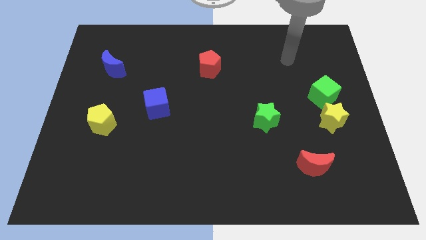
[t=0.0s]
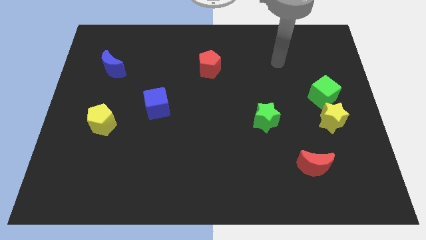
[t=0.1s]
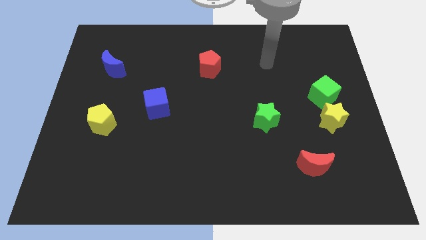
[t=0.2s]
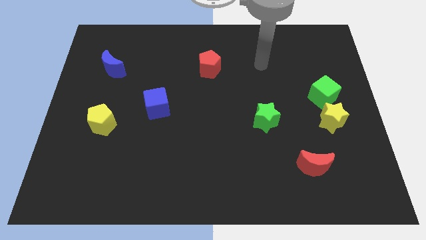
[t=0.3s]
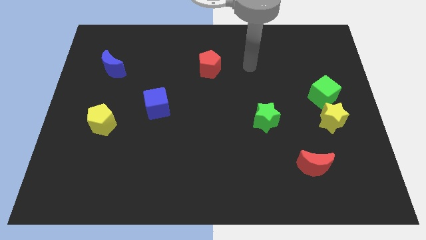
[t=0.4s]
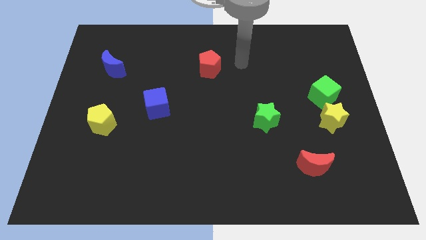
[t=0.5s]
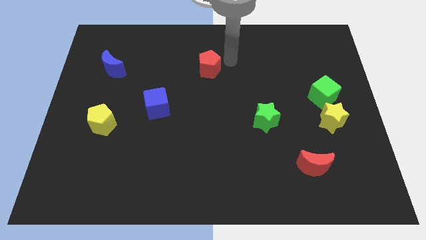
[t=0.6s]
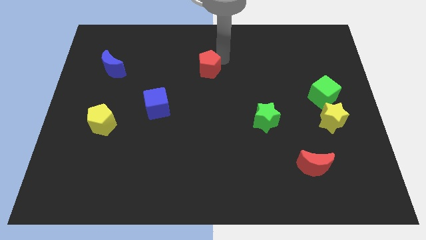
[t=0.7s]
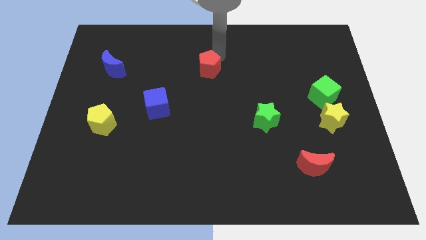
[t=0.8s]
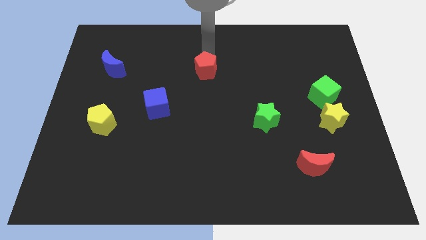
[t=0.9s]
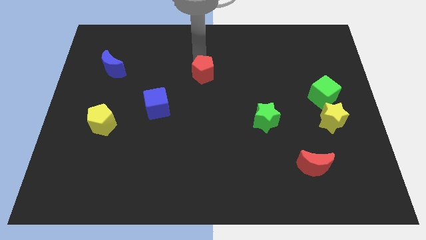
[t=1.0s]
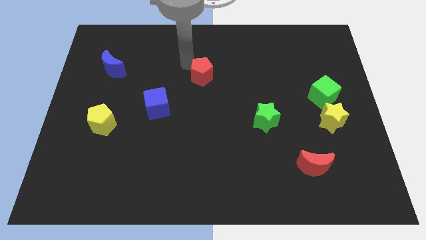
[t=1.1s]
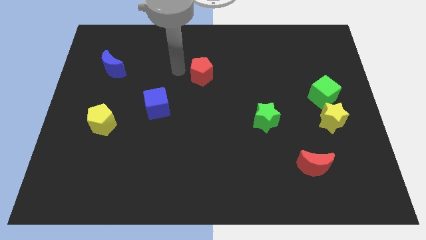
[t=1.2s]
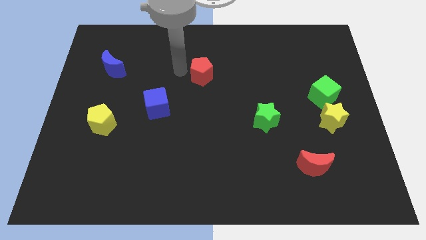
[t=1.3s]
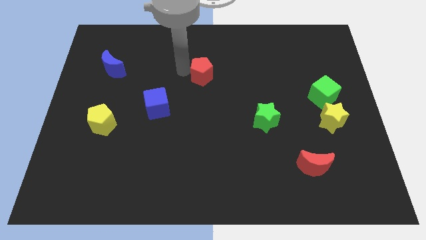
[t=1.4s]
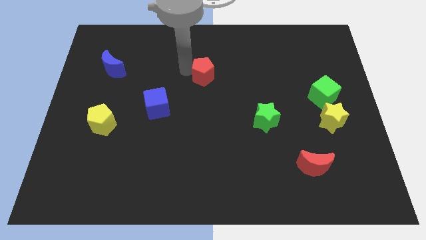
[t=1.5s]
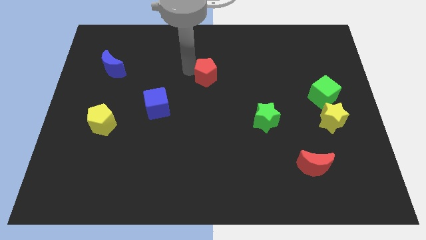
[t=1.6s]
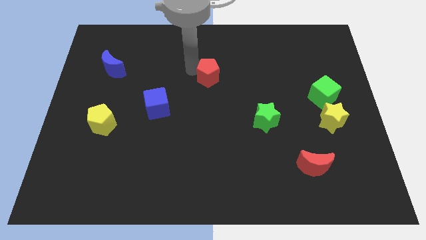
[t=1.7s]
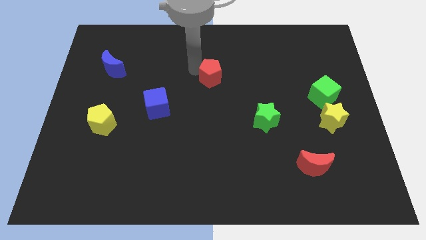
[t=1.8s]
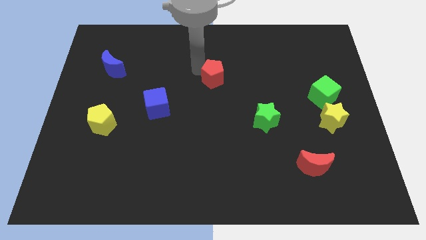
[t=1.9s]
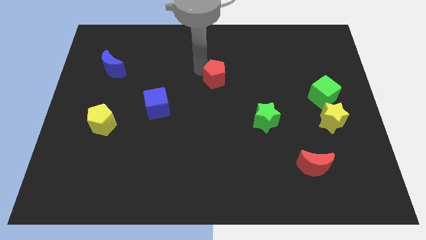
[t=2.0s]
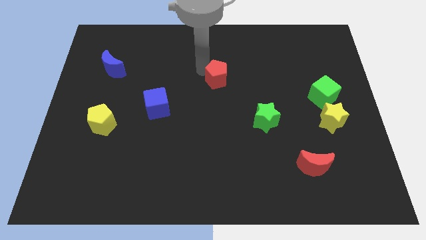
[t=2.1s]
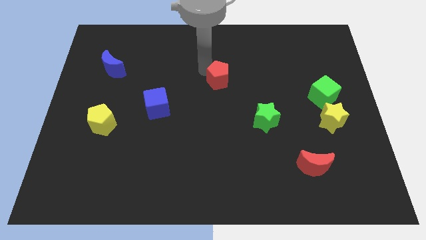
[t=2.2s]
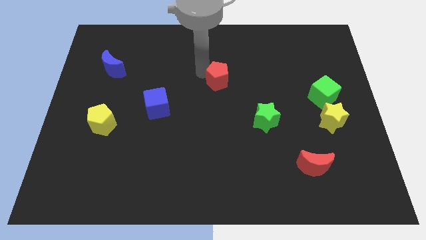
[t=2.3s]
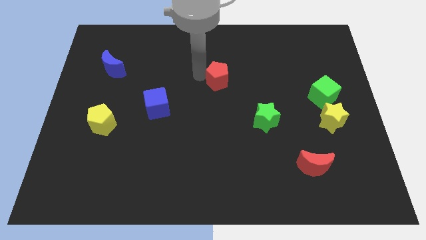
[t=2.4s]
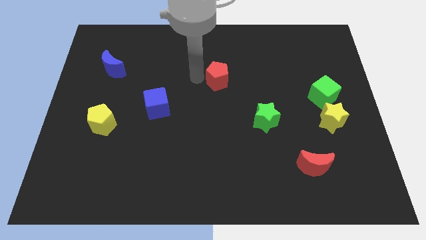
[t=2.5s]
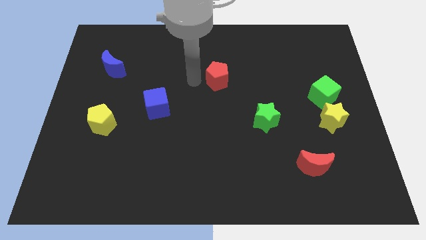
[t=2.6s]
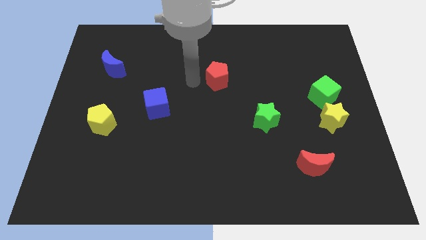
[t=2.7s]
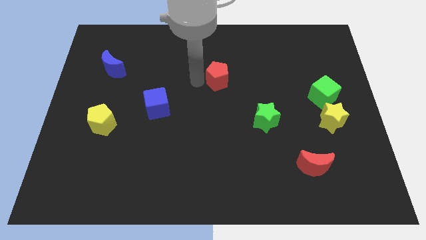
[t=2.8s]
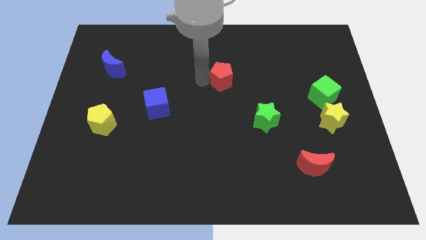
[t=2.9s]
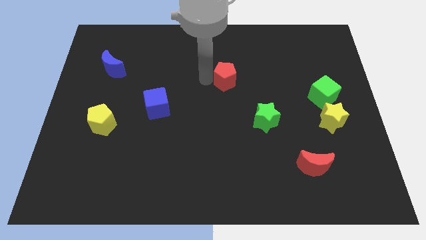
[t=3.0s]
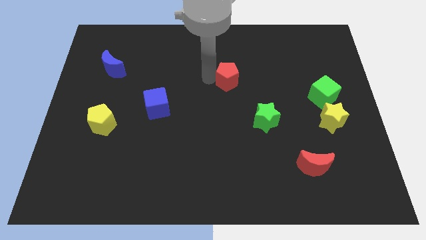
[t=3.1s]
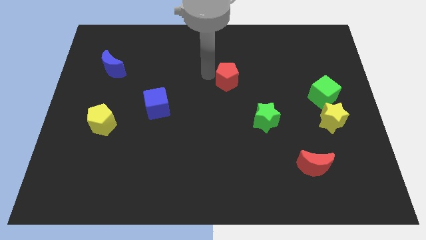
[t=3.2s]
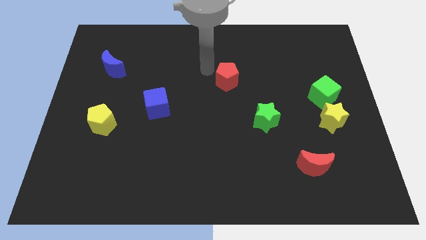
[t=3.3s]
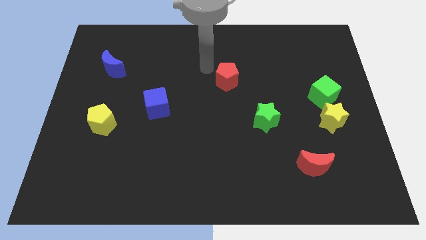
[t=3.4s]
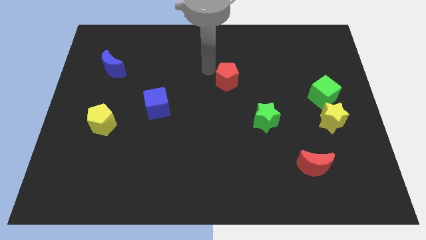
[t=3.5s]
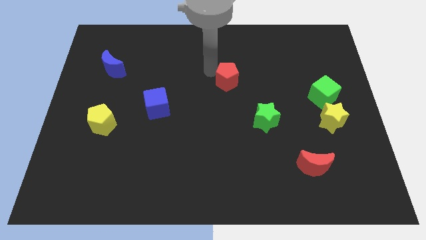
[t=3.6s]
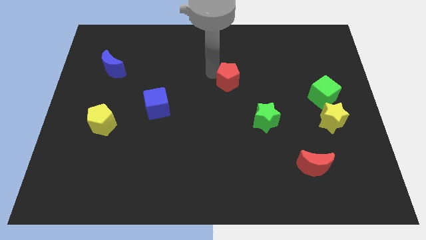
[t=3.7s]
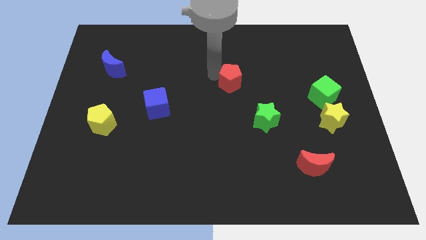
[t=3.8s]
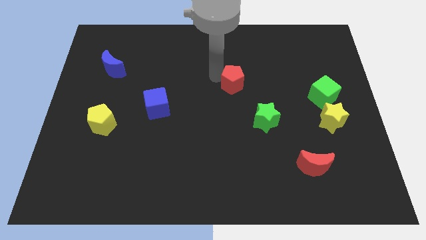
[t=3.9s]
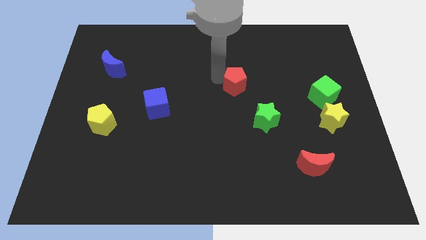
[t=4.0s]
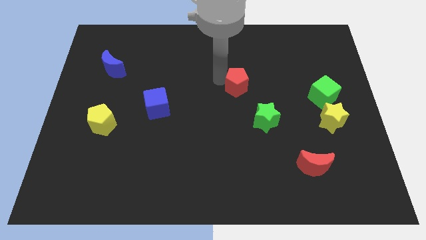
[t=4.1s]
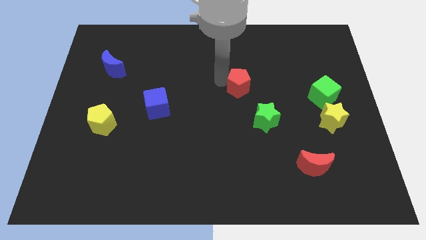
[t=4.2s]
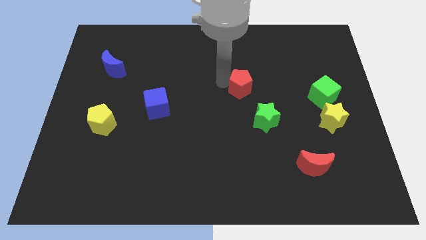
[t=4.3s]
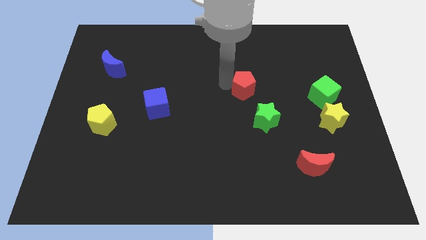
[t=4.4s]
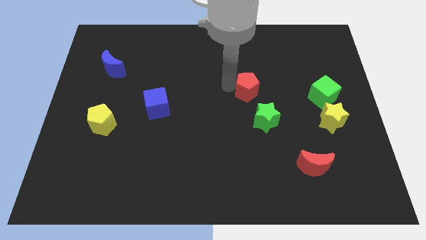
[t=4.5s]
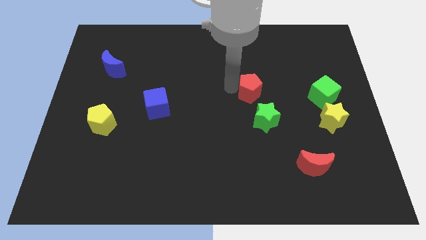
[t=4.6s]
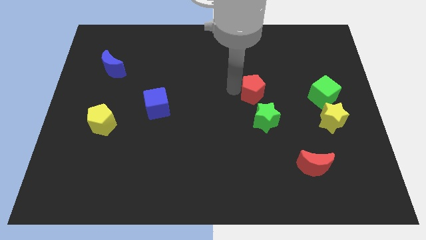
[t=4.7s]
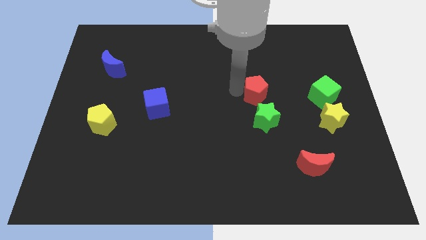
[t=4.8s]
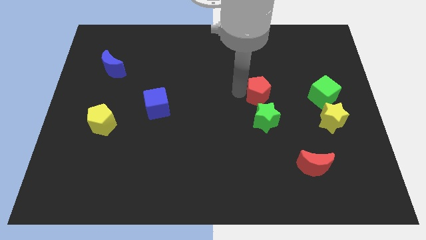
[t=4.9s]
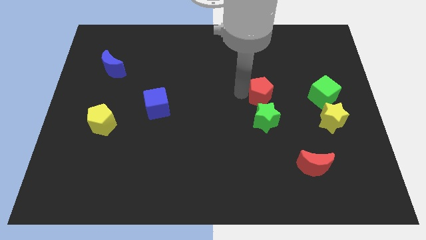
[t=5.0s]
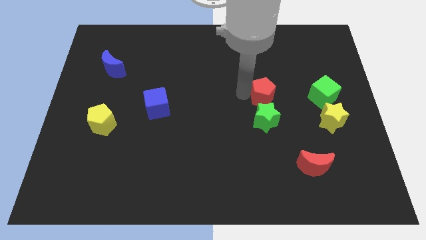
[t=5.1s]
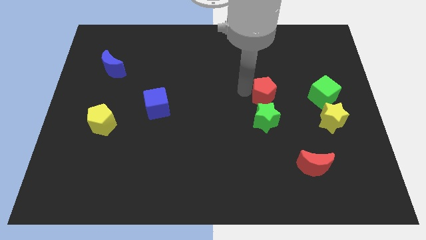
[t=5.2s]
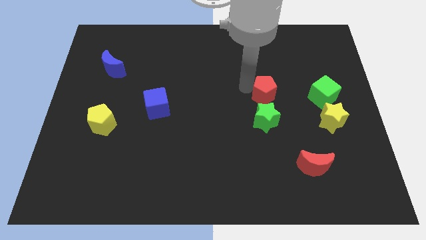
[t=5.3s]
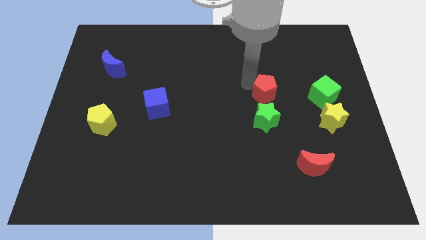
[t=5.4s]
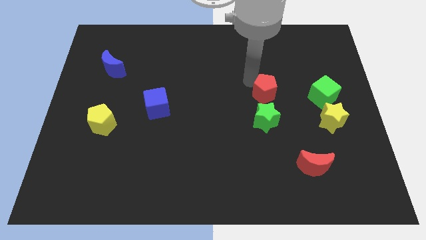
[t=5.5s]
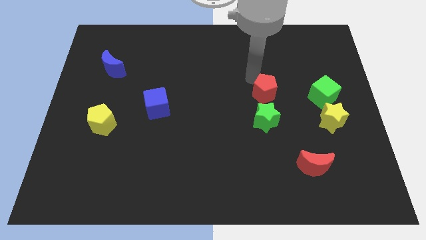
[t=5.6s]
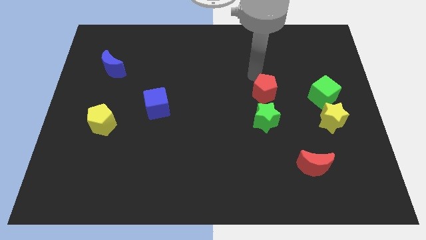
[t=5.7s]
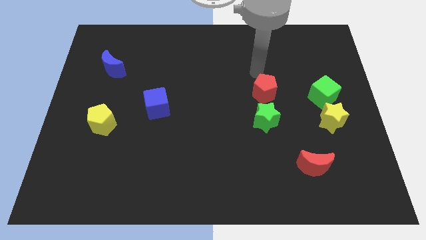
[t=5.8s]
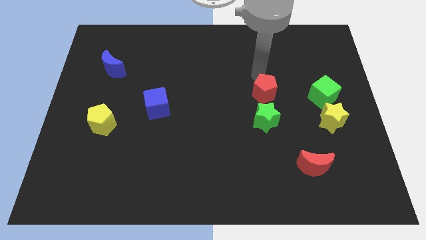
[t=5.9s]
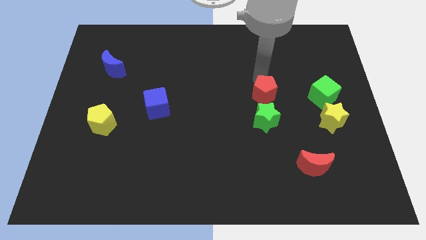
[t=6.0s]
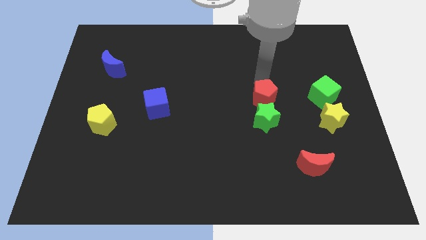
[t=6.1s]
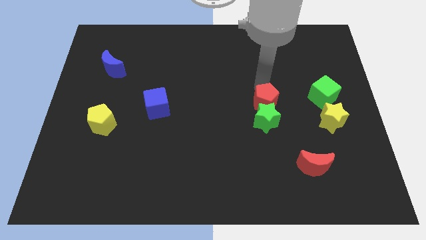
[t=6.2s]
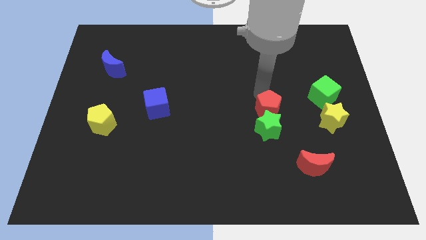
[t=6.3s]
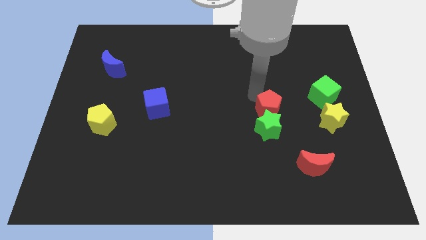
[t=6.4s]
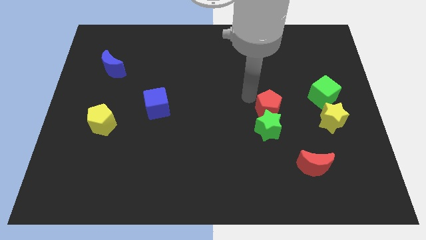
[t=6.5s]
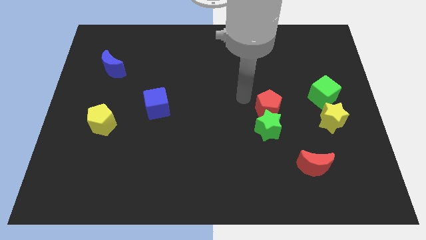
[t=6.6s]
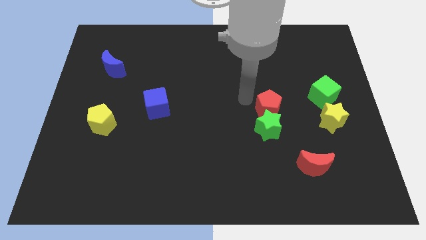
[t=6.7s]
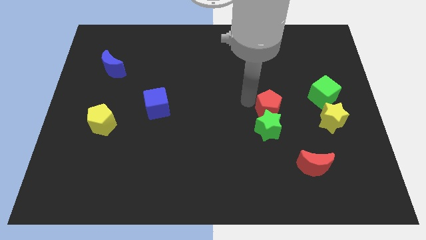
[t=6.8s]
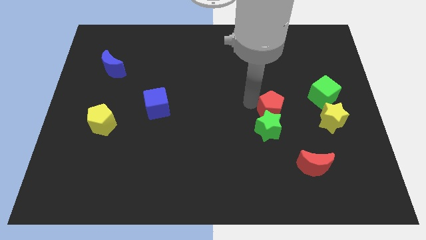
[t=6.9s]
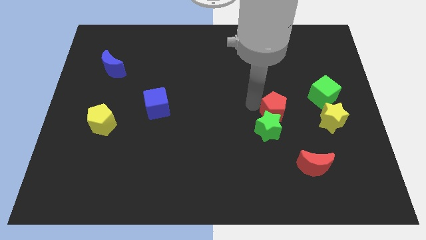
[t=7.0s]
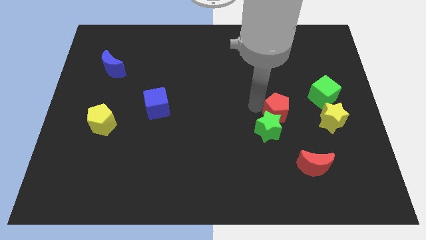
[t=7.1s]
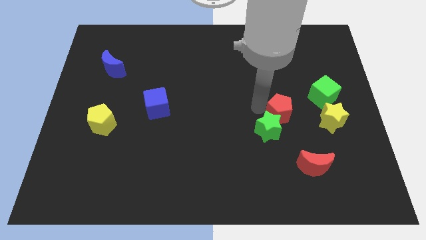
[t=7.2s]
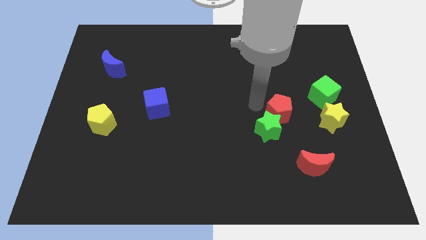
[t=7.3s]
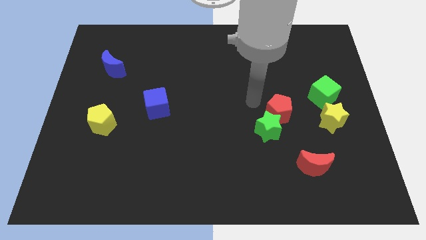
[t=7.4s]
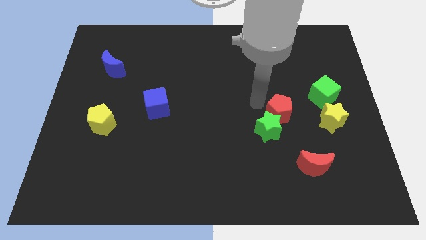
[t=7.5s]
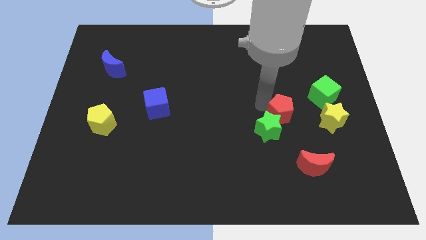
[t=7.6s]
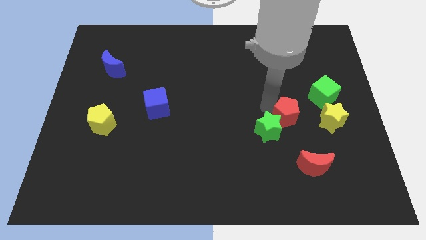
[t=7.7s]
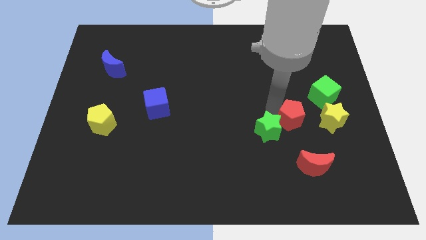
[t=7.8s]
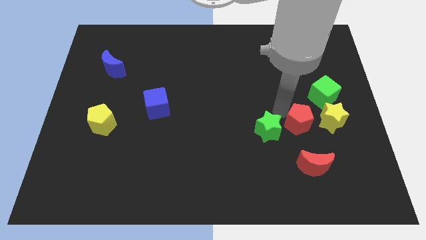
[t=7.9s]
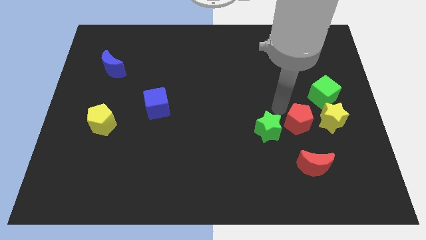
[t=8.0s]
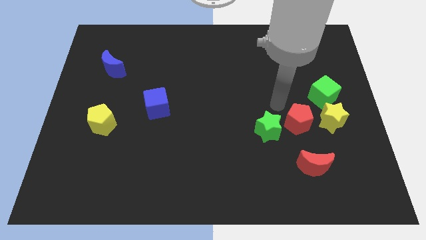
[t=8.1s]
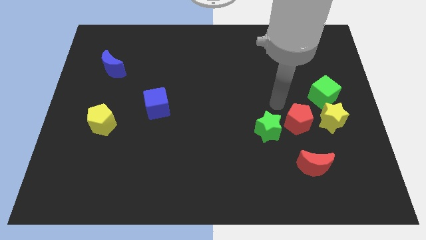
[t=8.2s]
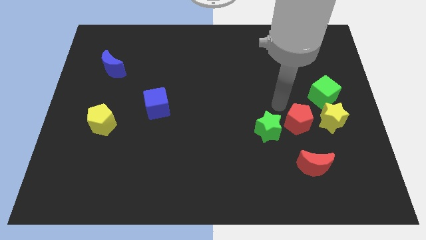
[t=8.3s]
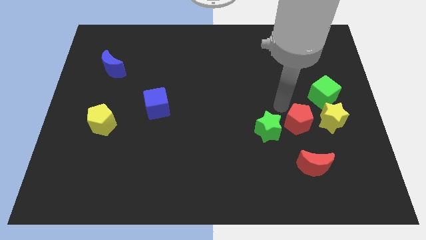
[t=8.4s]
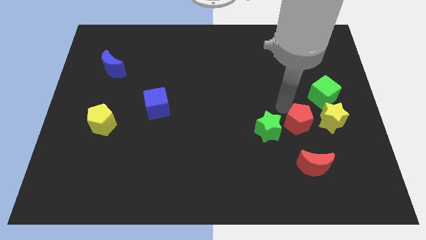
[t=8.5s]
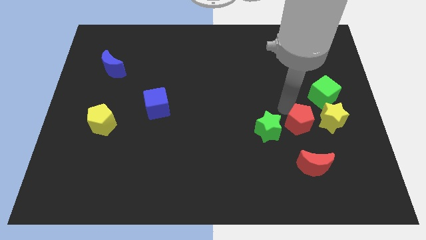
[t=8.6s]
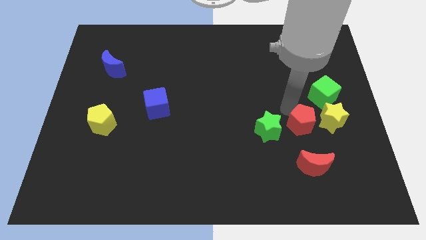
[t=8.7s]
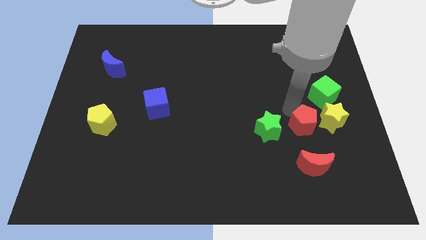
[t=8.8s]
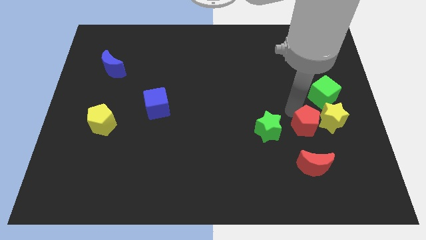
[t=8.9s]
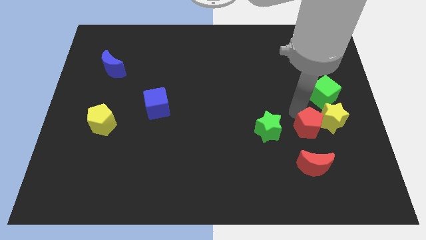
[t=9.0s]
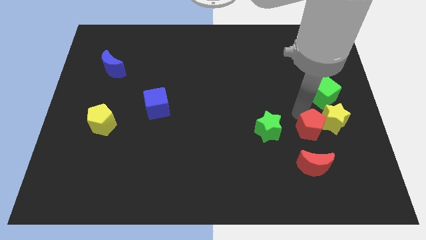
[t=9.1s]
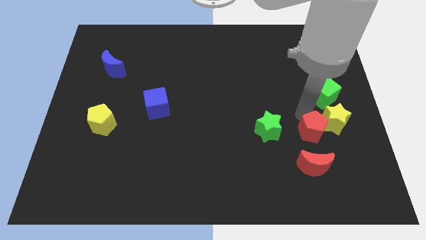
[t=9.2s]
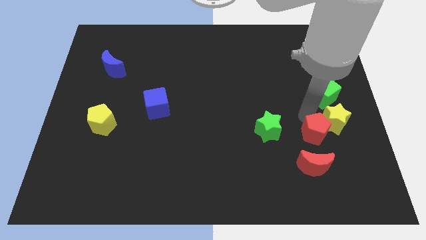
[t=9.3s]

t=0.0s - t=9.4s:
push the red pentagon to the top right of the red moon
